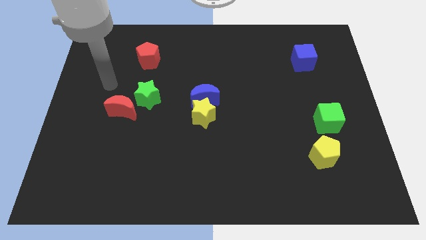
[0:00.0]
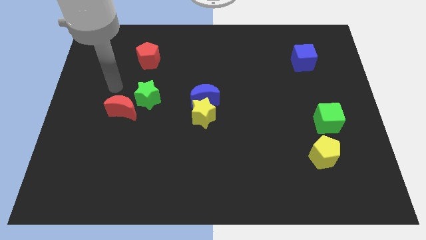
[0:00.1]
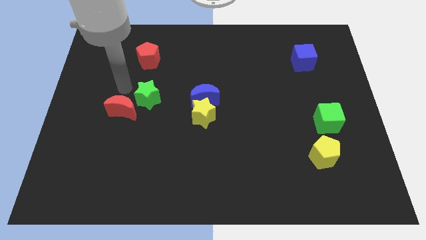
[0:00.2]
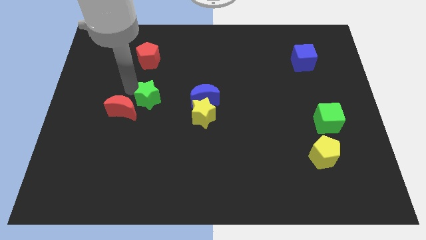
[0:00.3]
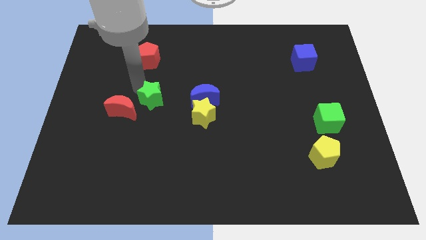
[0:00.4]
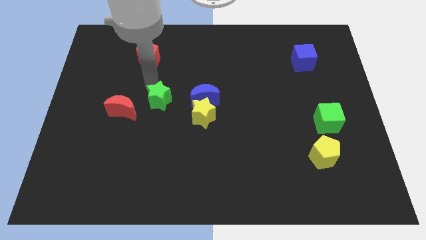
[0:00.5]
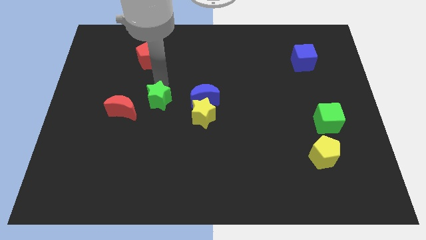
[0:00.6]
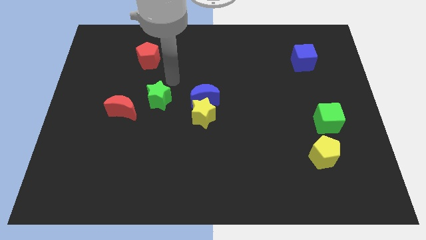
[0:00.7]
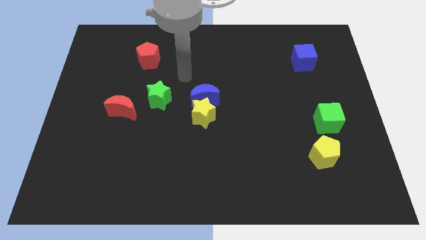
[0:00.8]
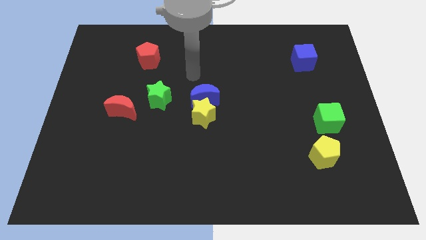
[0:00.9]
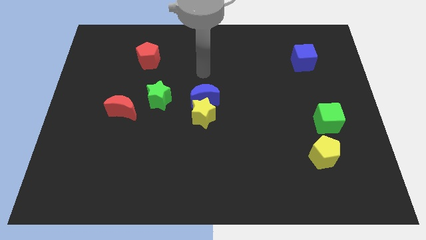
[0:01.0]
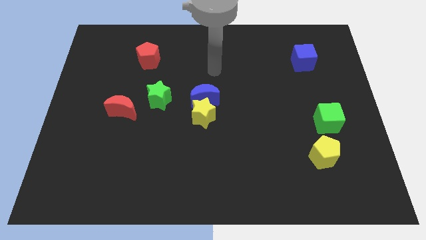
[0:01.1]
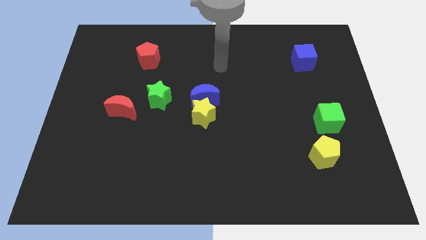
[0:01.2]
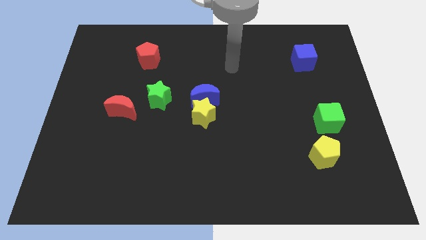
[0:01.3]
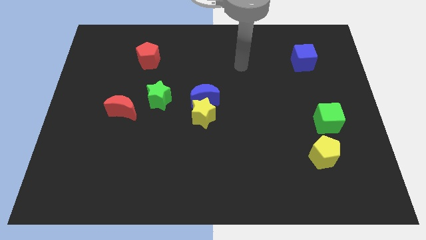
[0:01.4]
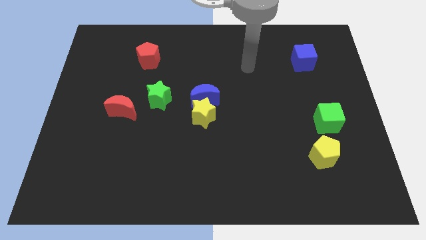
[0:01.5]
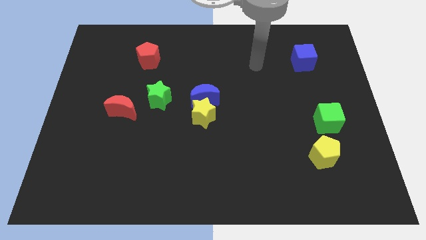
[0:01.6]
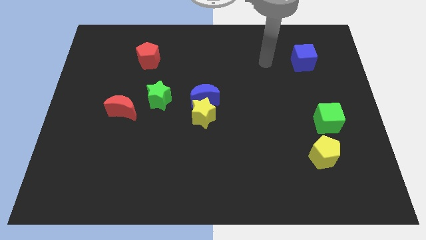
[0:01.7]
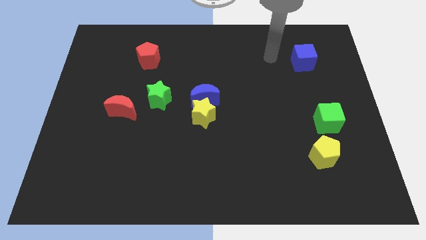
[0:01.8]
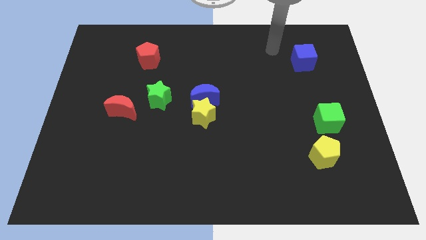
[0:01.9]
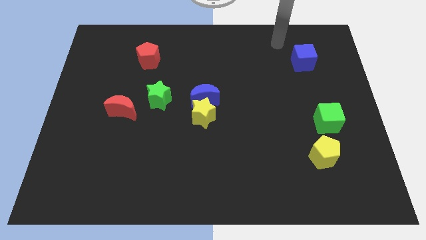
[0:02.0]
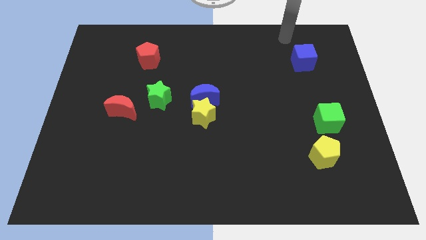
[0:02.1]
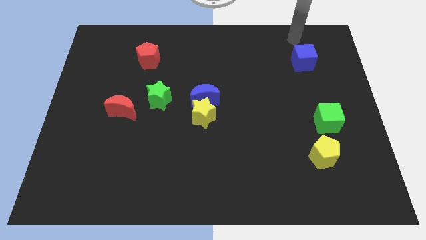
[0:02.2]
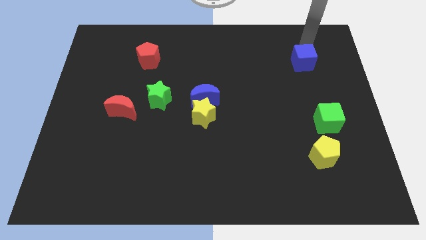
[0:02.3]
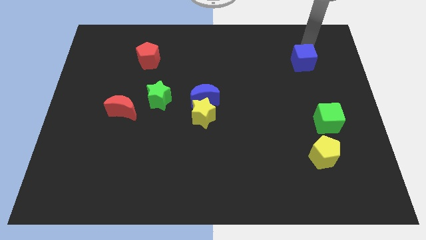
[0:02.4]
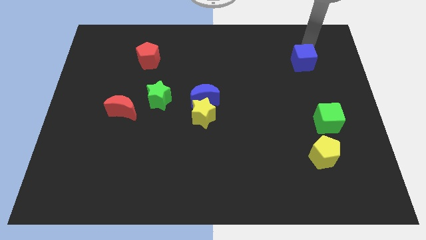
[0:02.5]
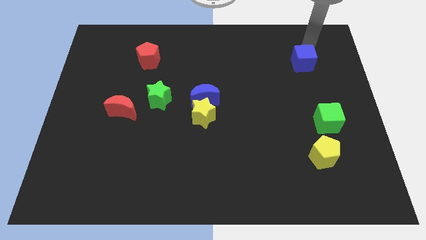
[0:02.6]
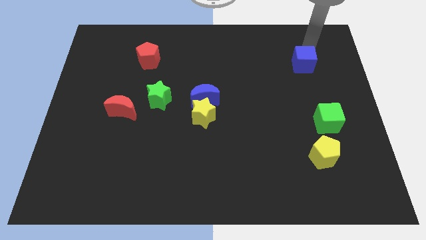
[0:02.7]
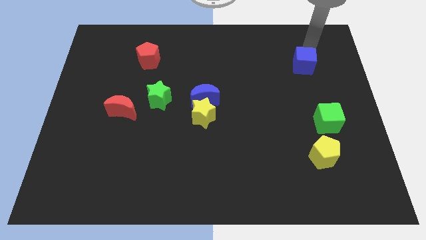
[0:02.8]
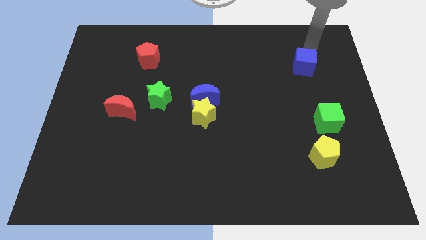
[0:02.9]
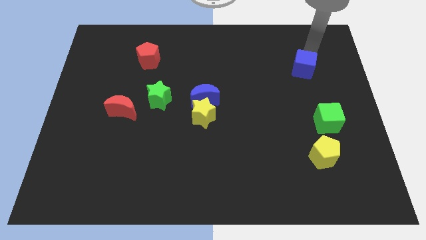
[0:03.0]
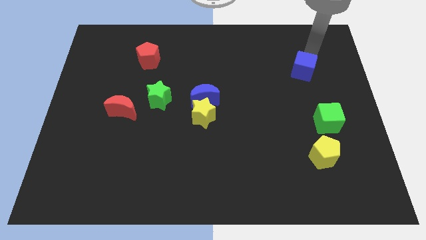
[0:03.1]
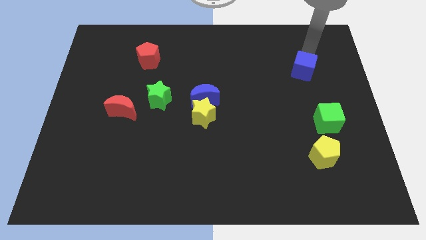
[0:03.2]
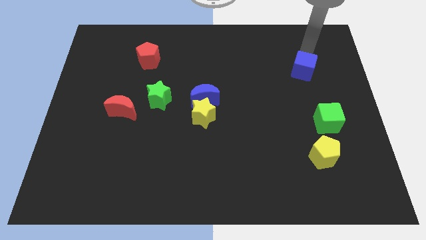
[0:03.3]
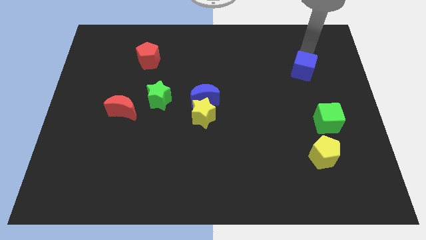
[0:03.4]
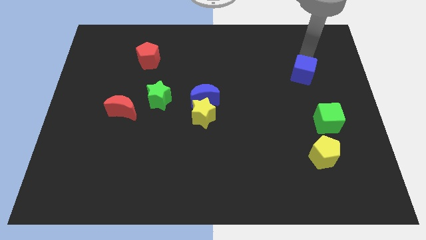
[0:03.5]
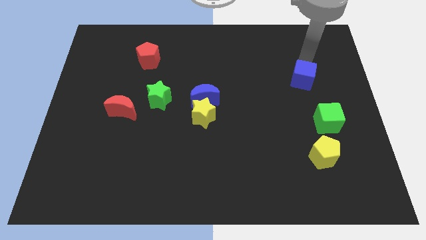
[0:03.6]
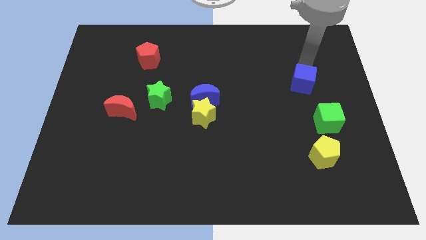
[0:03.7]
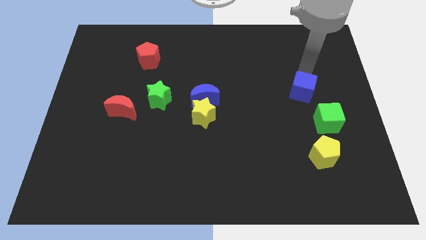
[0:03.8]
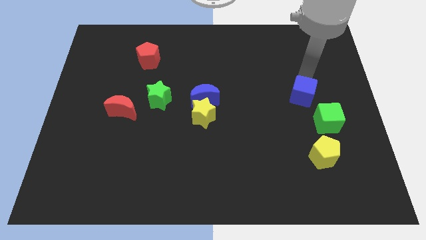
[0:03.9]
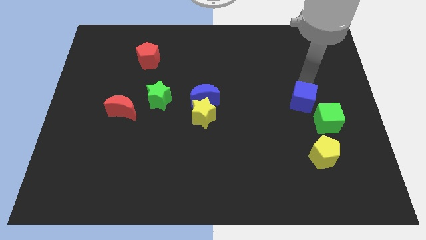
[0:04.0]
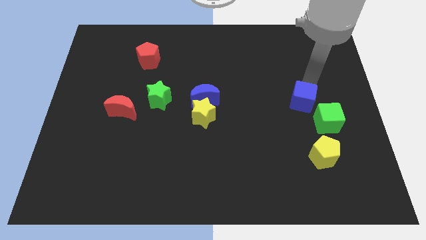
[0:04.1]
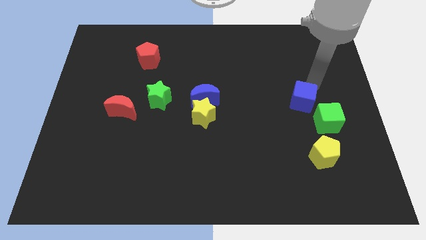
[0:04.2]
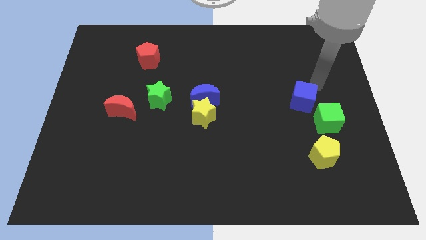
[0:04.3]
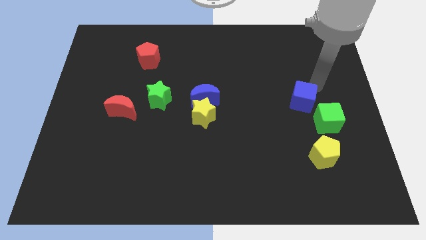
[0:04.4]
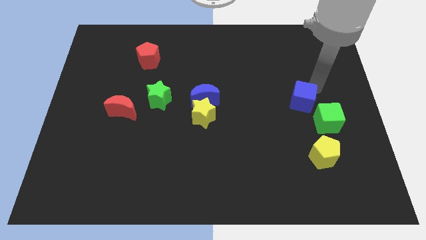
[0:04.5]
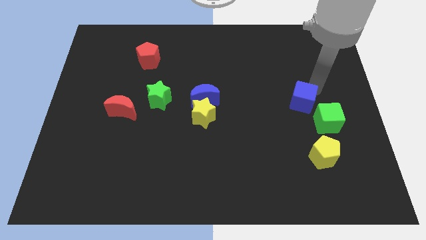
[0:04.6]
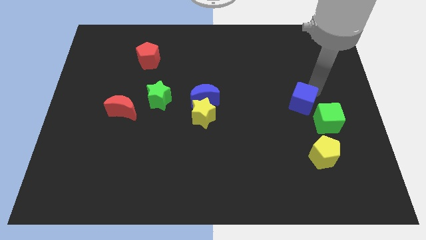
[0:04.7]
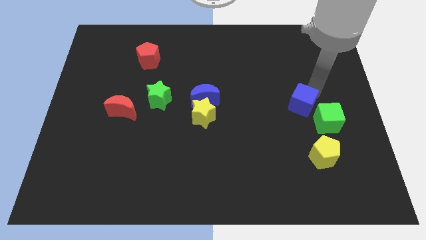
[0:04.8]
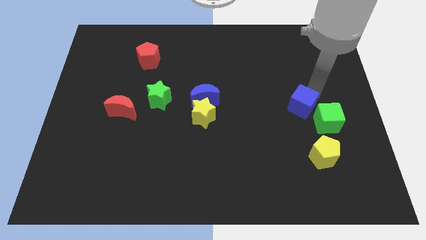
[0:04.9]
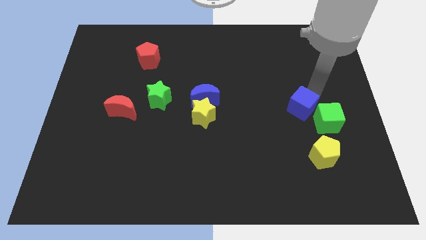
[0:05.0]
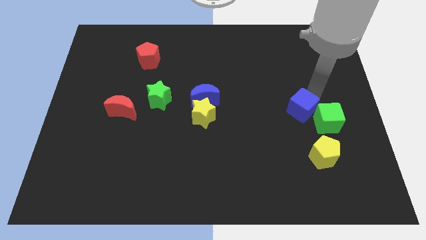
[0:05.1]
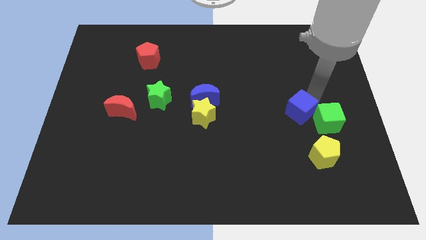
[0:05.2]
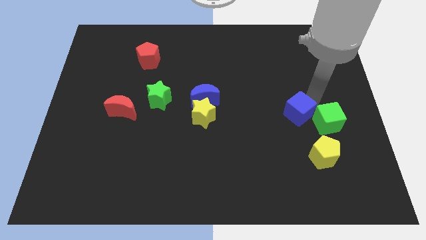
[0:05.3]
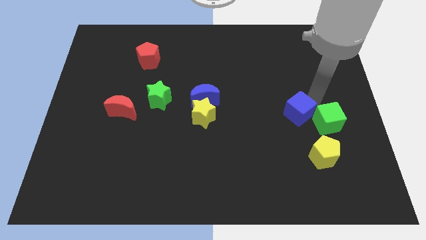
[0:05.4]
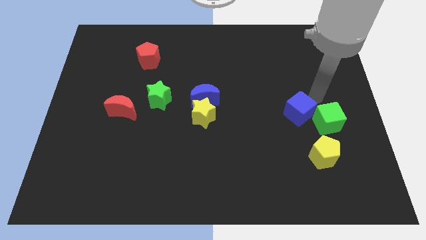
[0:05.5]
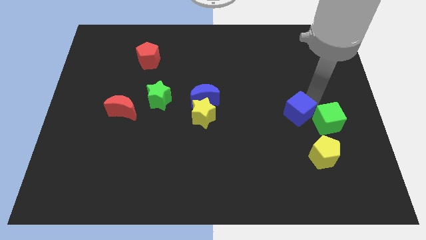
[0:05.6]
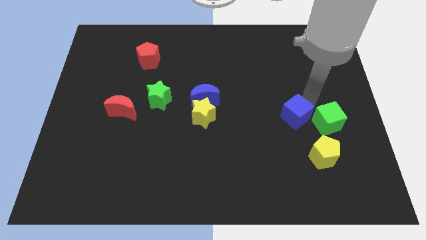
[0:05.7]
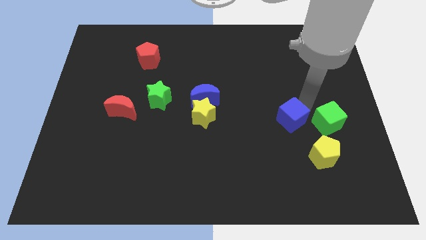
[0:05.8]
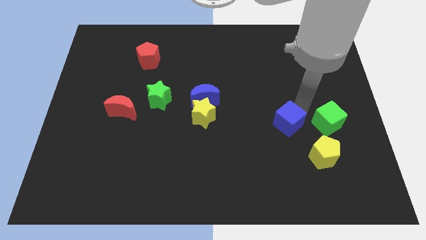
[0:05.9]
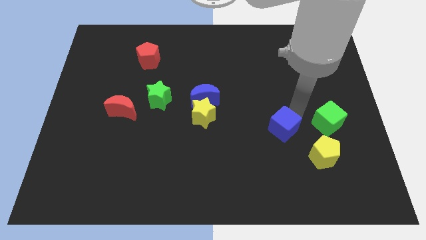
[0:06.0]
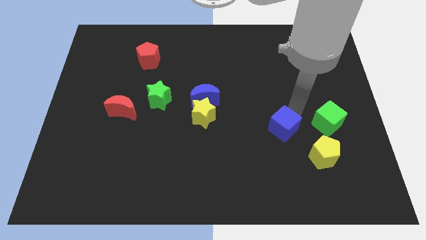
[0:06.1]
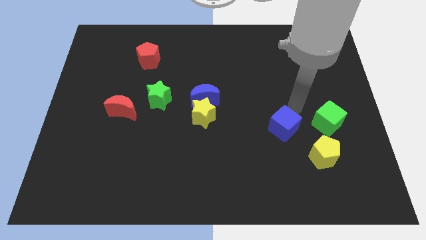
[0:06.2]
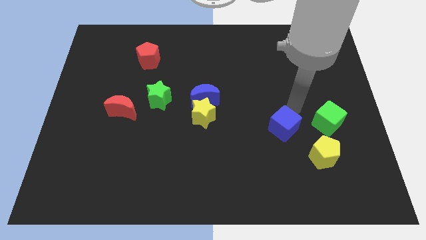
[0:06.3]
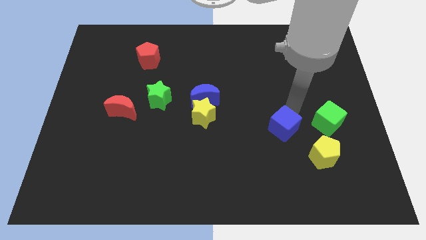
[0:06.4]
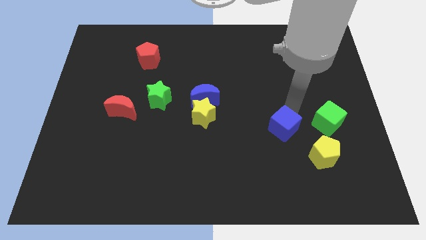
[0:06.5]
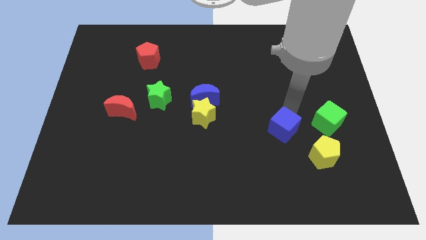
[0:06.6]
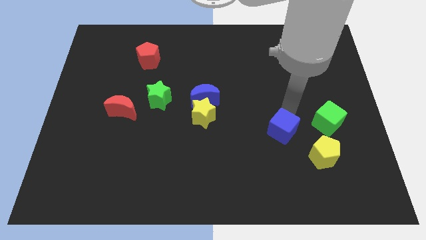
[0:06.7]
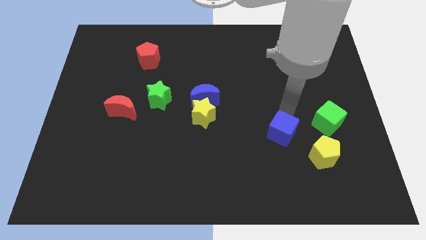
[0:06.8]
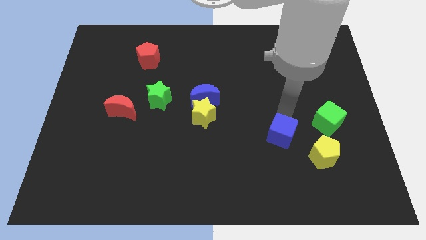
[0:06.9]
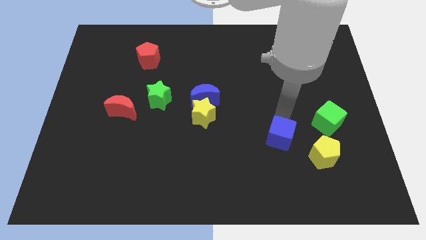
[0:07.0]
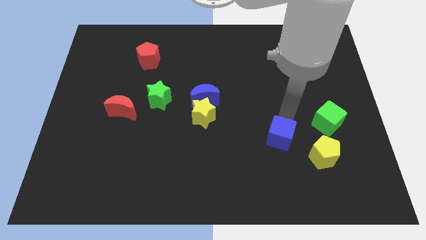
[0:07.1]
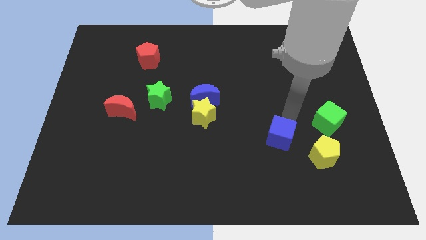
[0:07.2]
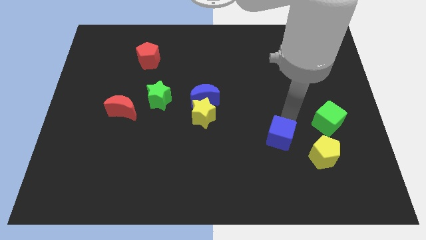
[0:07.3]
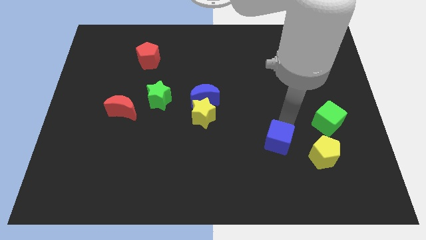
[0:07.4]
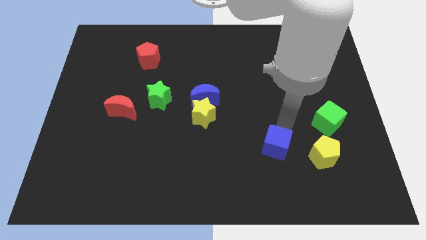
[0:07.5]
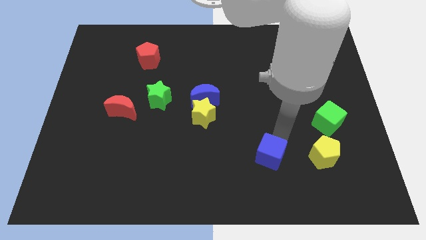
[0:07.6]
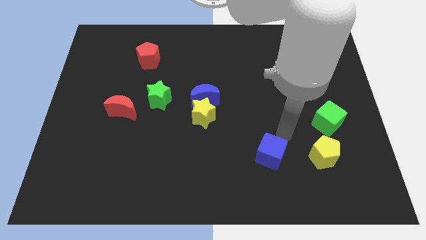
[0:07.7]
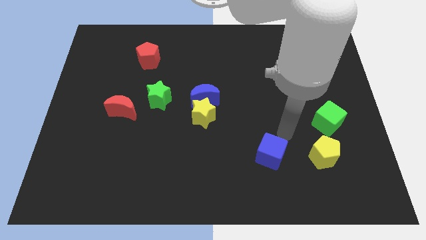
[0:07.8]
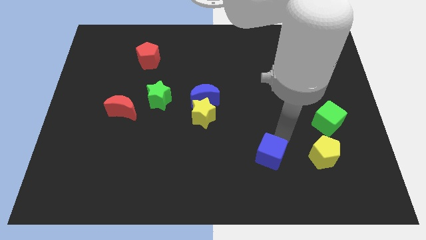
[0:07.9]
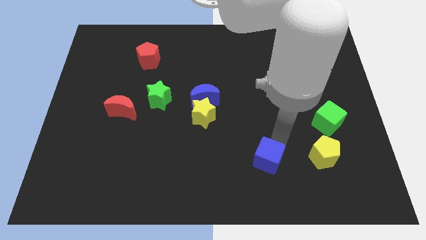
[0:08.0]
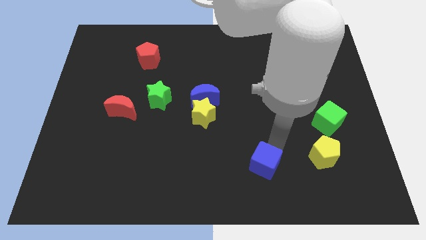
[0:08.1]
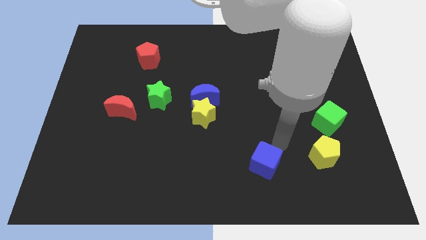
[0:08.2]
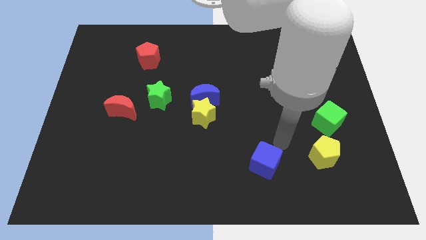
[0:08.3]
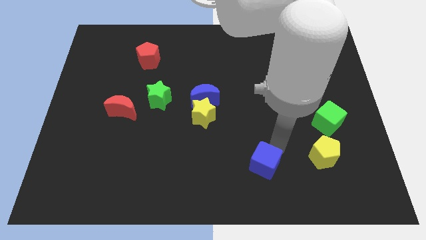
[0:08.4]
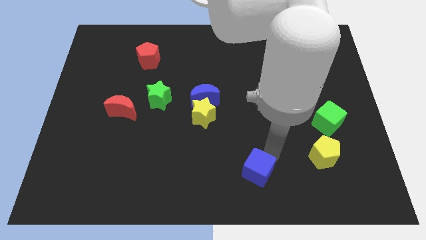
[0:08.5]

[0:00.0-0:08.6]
move the blue cube to the bottom
